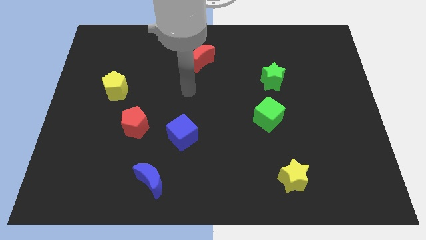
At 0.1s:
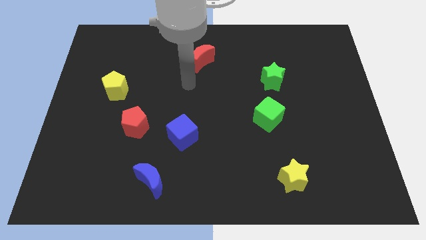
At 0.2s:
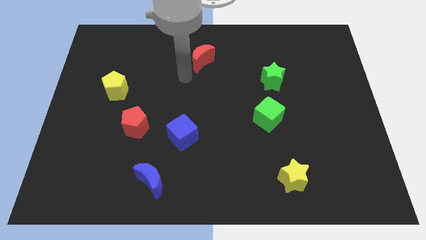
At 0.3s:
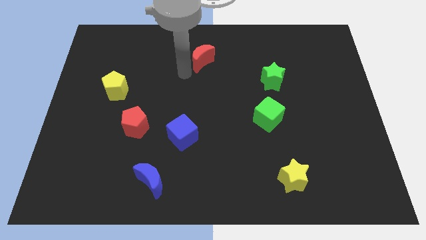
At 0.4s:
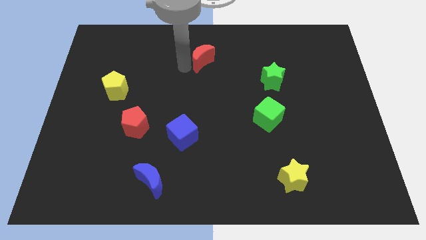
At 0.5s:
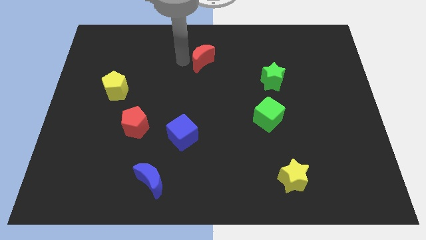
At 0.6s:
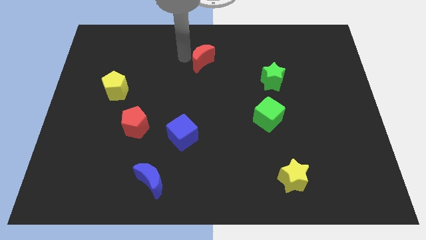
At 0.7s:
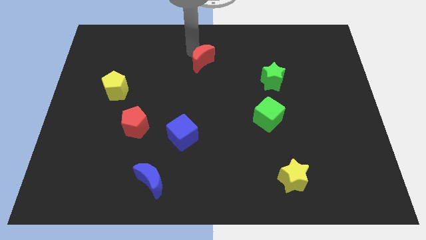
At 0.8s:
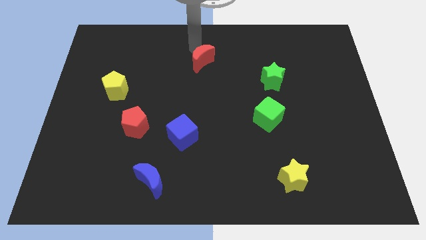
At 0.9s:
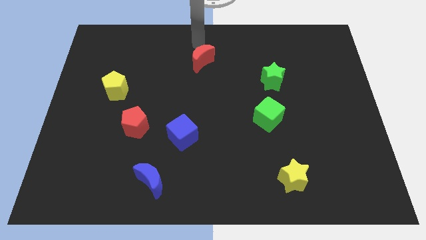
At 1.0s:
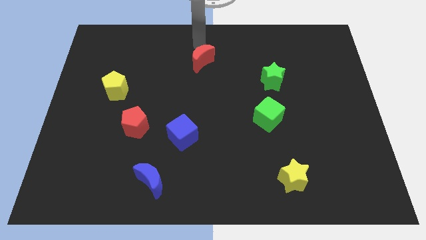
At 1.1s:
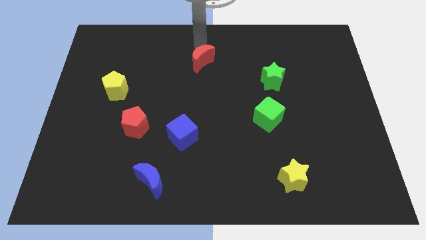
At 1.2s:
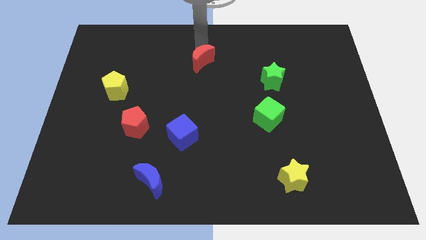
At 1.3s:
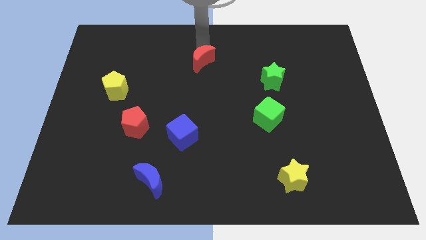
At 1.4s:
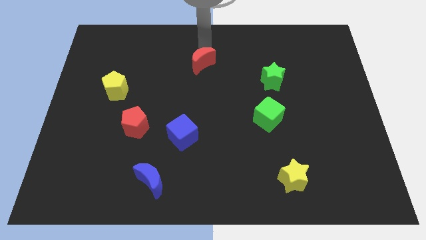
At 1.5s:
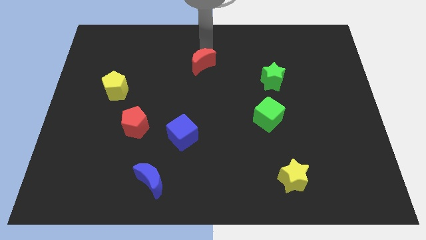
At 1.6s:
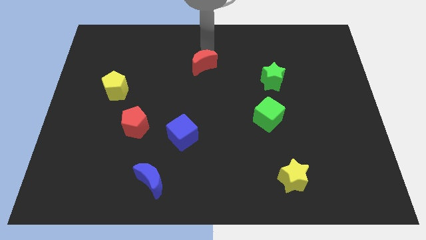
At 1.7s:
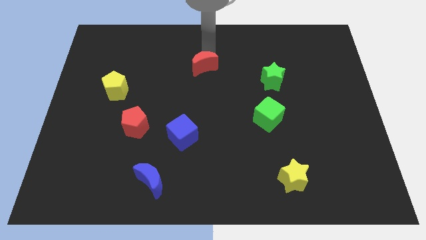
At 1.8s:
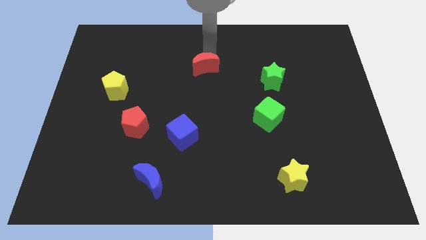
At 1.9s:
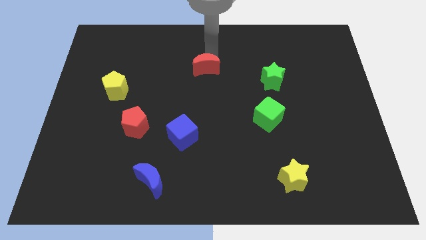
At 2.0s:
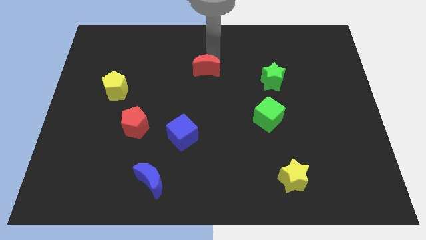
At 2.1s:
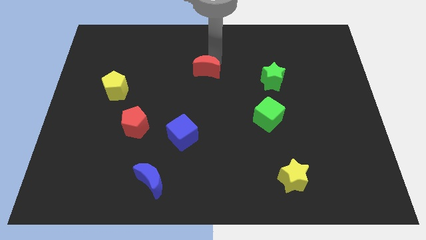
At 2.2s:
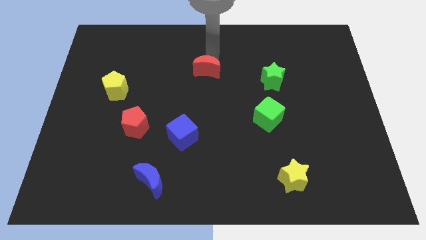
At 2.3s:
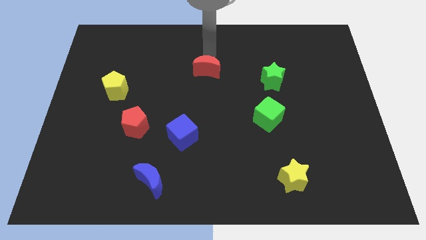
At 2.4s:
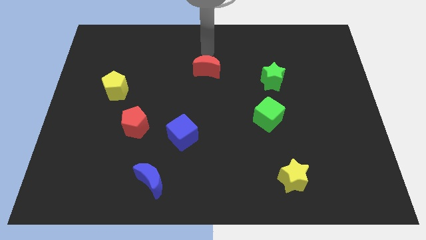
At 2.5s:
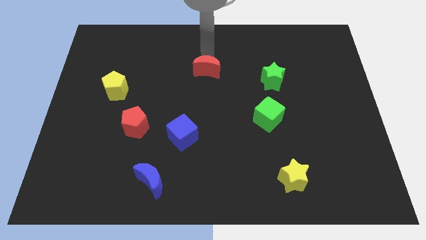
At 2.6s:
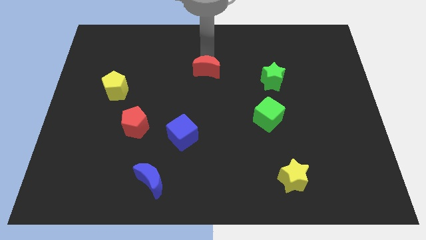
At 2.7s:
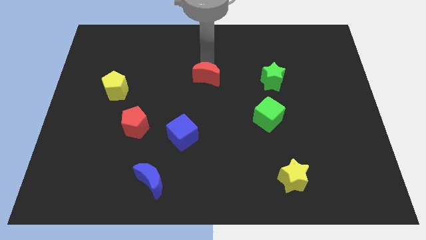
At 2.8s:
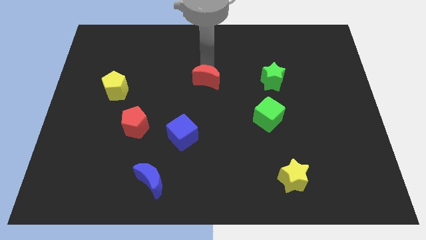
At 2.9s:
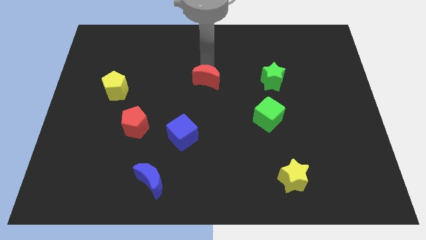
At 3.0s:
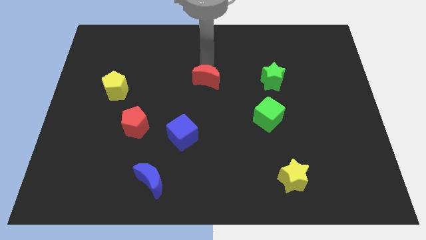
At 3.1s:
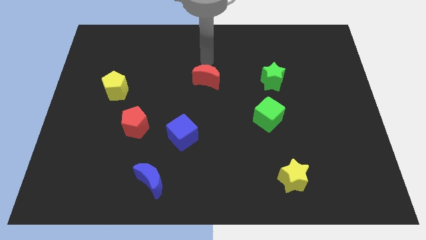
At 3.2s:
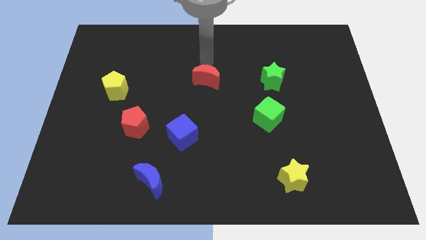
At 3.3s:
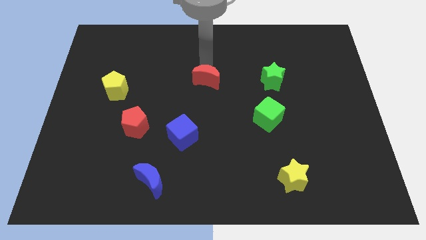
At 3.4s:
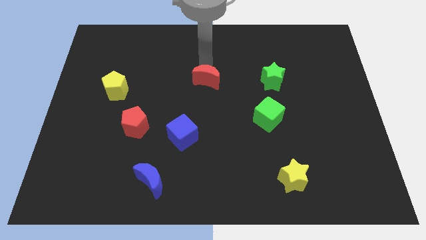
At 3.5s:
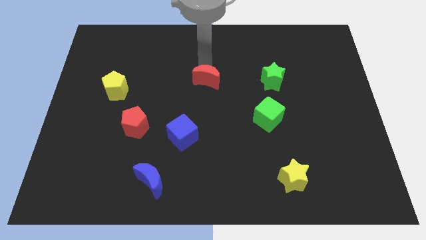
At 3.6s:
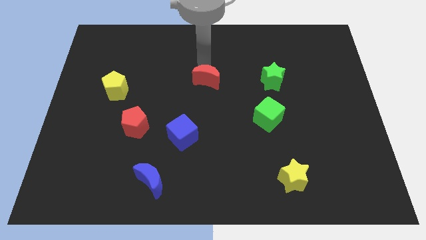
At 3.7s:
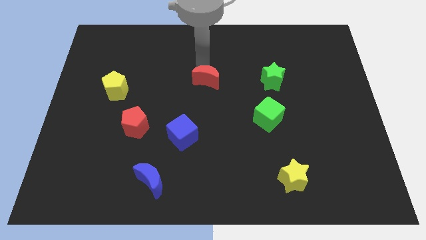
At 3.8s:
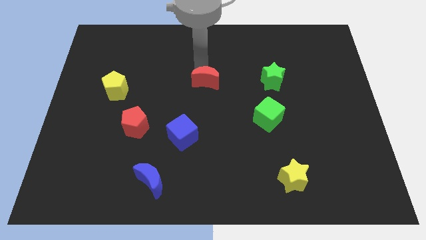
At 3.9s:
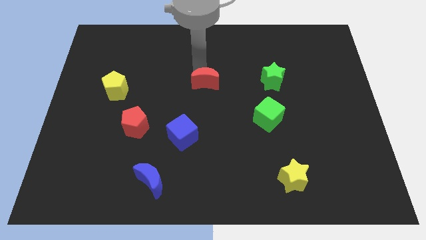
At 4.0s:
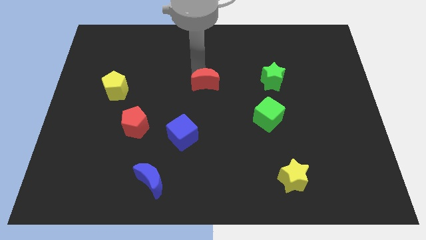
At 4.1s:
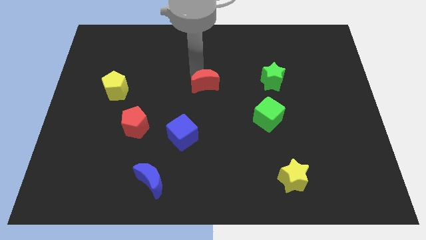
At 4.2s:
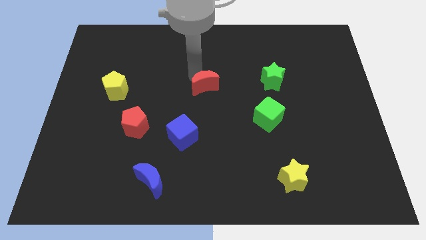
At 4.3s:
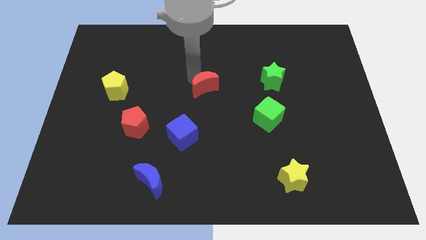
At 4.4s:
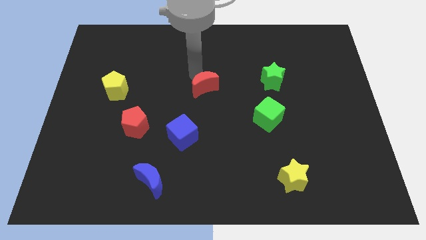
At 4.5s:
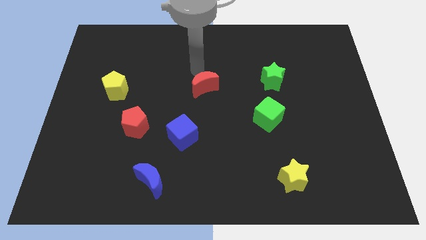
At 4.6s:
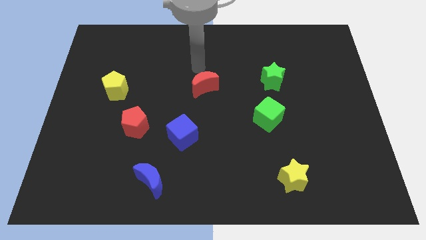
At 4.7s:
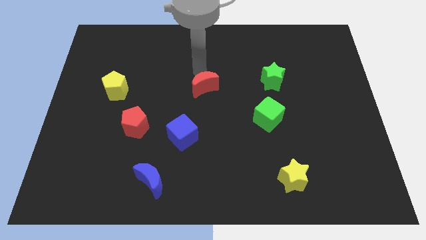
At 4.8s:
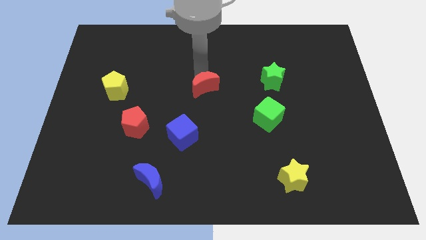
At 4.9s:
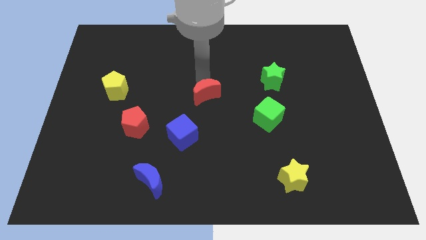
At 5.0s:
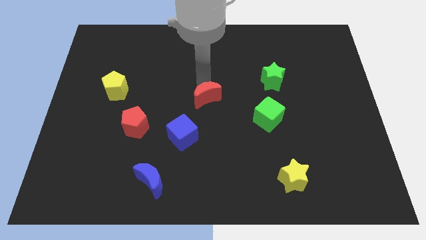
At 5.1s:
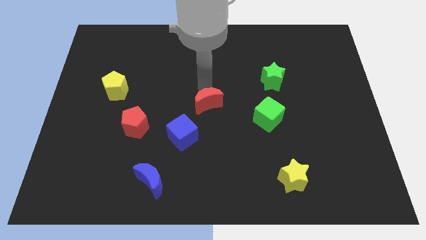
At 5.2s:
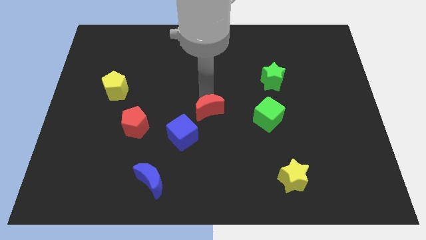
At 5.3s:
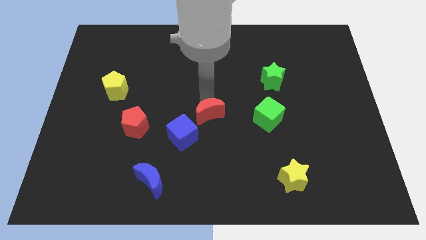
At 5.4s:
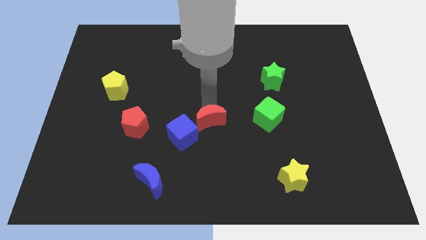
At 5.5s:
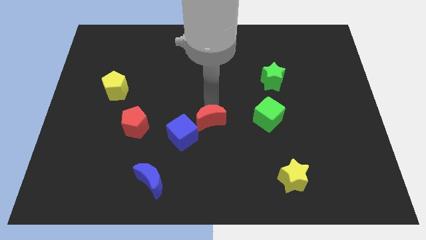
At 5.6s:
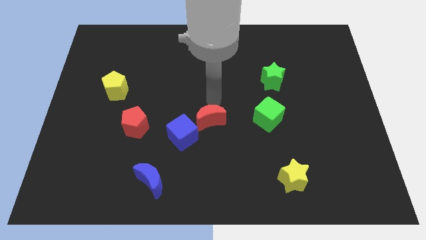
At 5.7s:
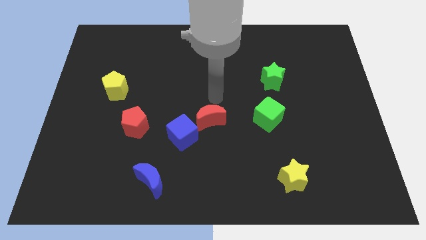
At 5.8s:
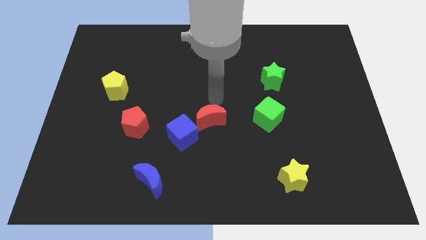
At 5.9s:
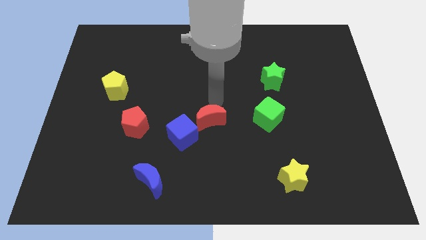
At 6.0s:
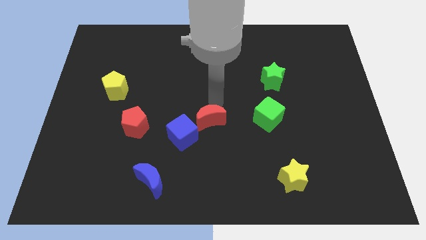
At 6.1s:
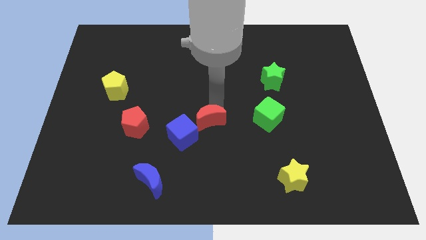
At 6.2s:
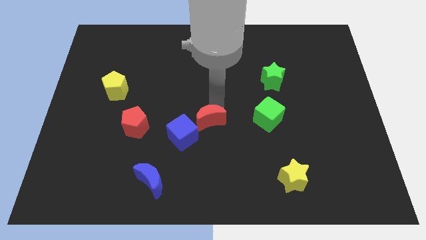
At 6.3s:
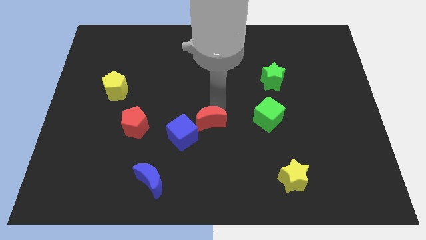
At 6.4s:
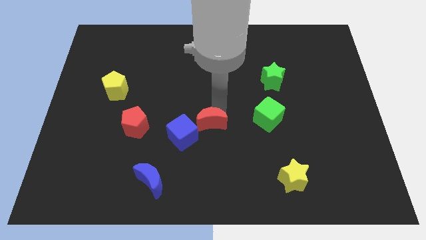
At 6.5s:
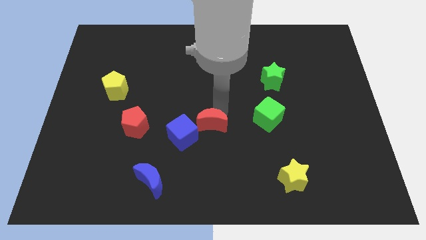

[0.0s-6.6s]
push the red moon down

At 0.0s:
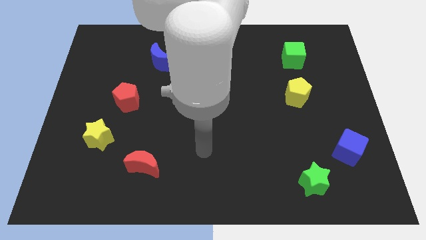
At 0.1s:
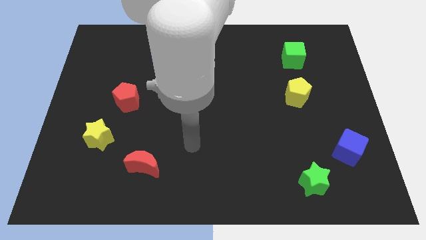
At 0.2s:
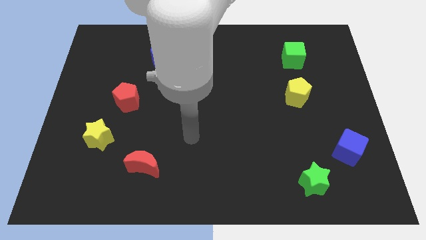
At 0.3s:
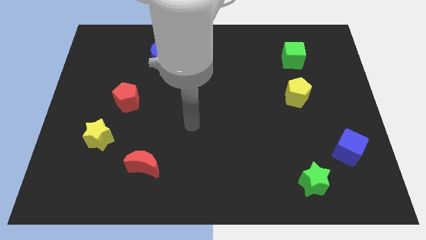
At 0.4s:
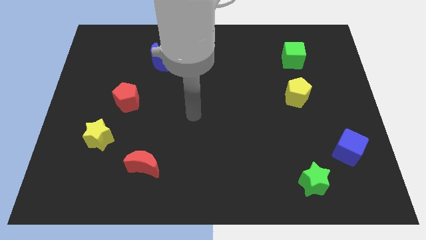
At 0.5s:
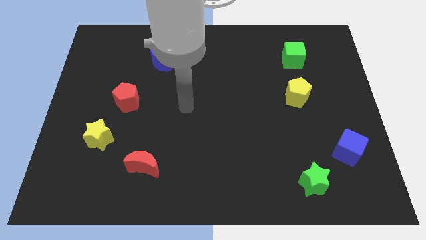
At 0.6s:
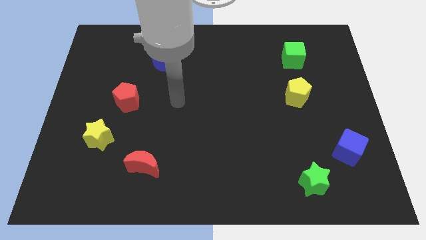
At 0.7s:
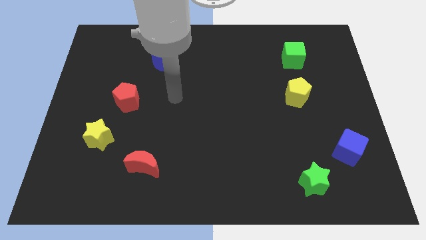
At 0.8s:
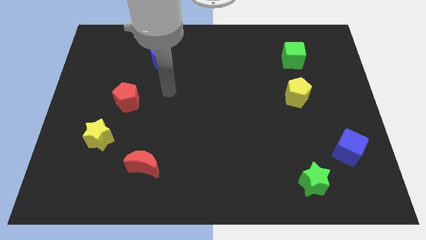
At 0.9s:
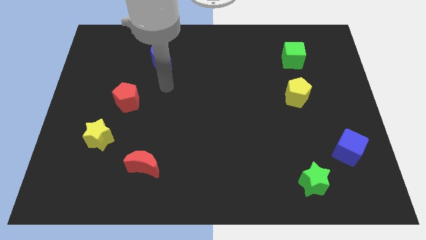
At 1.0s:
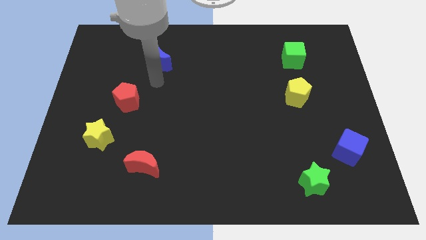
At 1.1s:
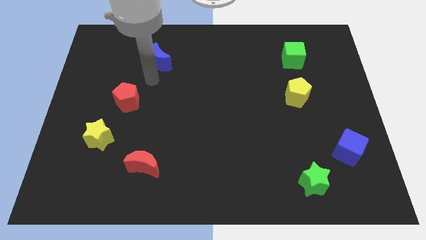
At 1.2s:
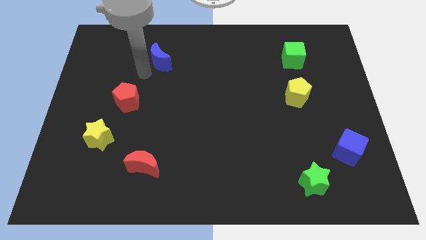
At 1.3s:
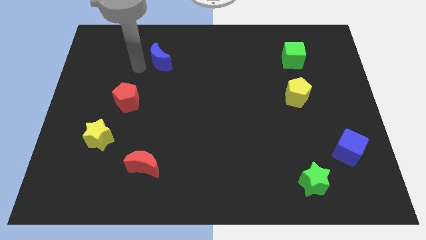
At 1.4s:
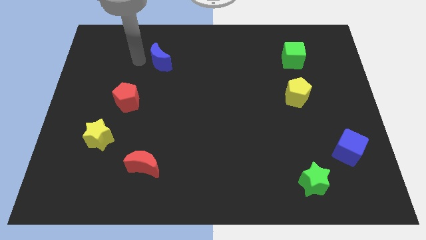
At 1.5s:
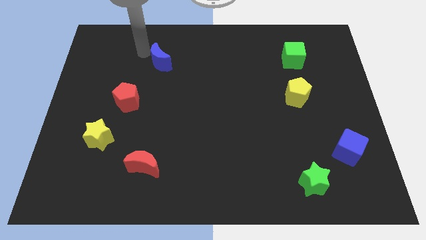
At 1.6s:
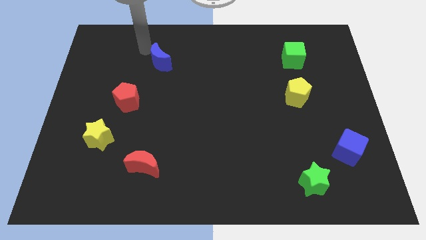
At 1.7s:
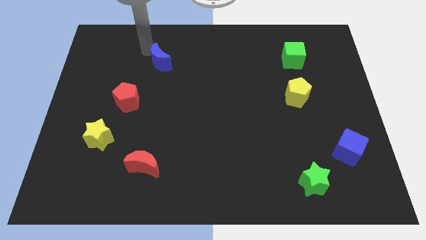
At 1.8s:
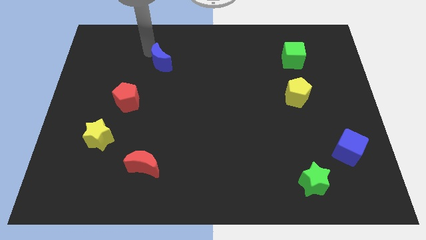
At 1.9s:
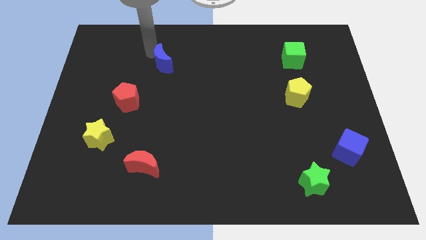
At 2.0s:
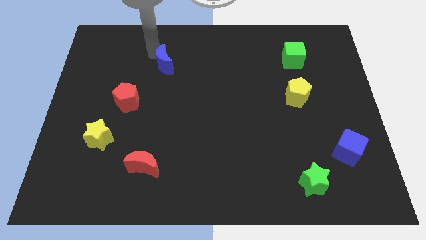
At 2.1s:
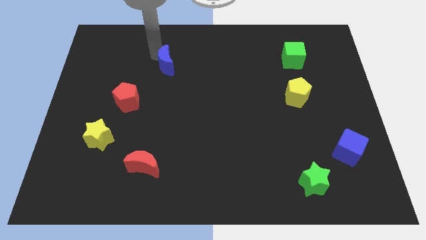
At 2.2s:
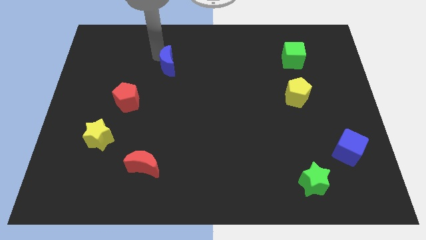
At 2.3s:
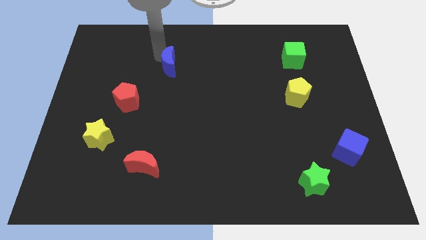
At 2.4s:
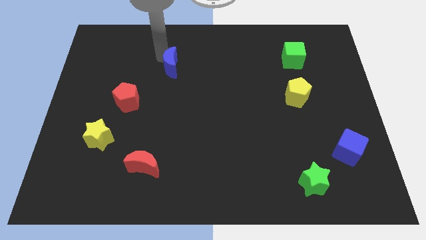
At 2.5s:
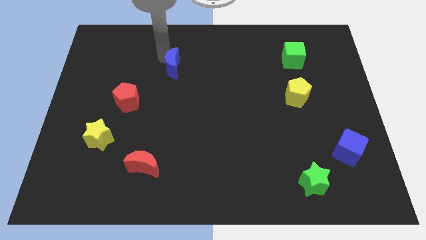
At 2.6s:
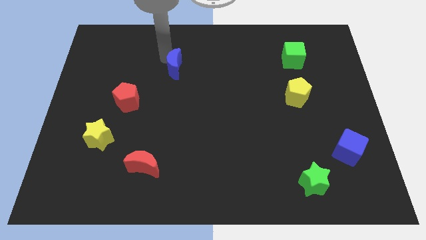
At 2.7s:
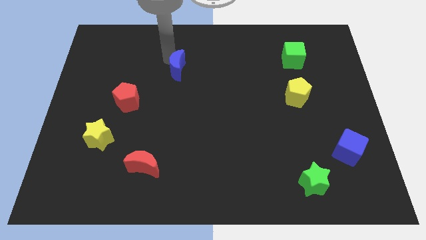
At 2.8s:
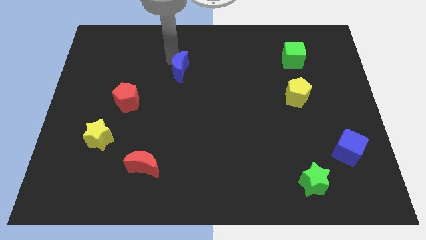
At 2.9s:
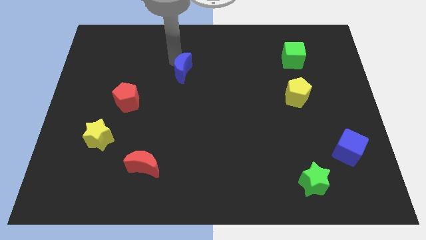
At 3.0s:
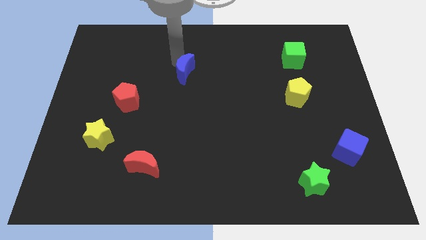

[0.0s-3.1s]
move the blue moon somewhat down and right
